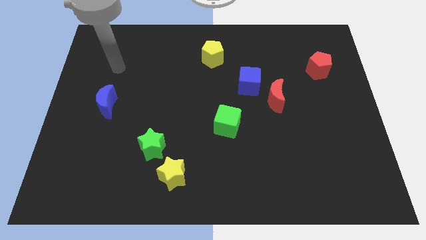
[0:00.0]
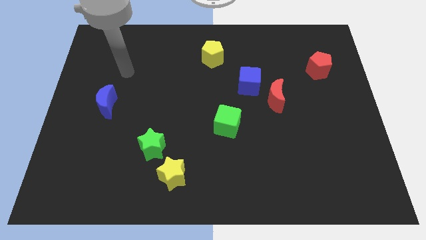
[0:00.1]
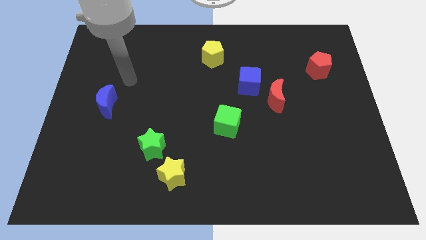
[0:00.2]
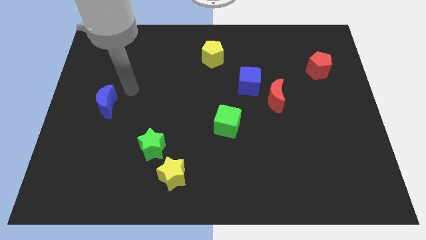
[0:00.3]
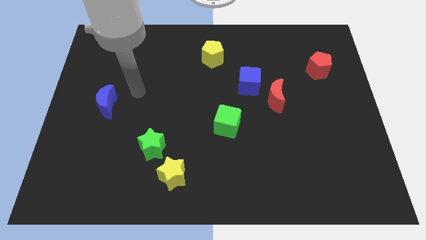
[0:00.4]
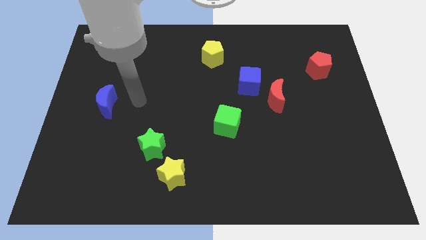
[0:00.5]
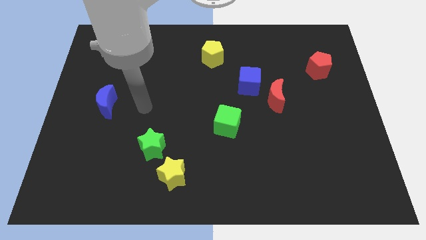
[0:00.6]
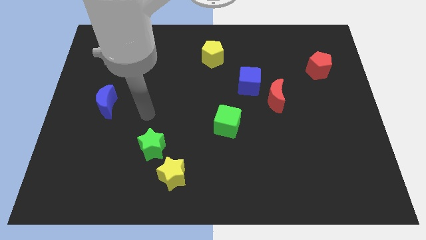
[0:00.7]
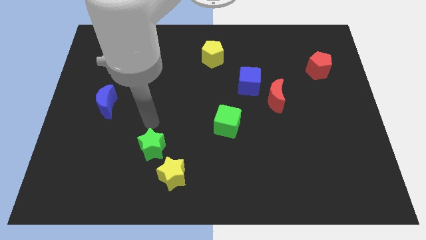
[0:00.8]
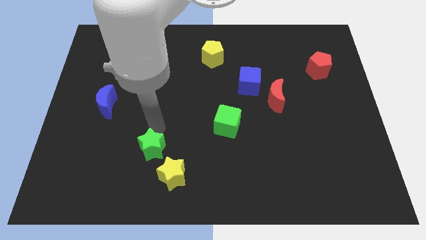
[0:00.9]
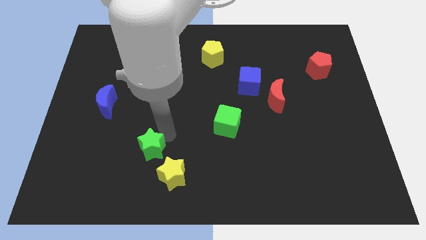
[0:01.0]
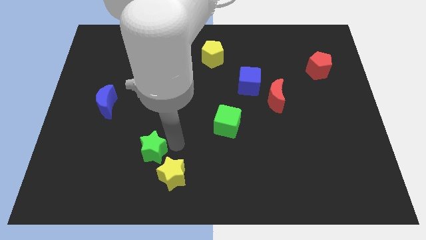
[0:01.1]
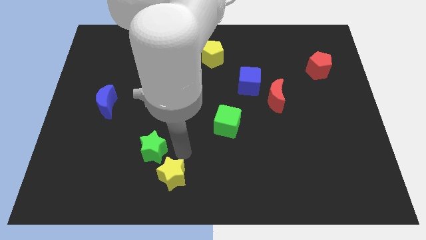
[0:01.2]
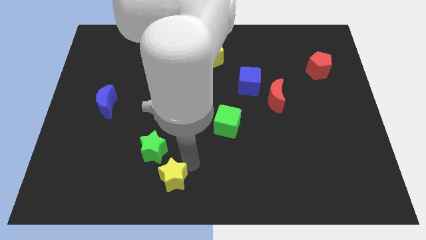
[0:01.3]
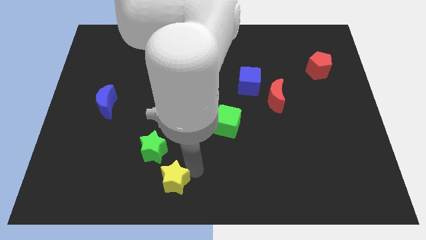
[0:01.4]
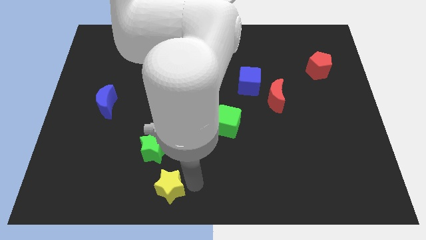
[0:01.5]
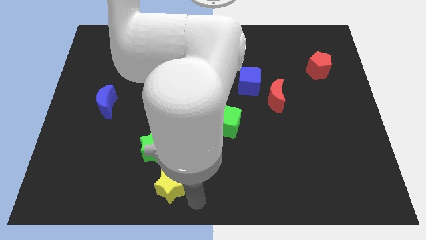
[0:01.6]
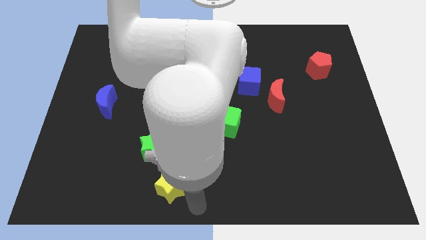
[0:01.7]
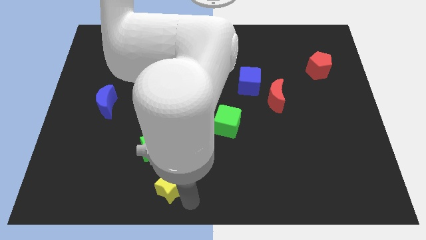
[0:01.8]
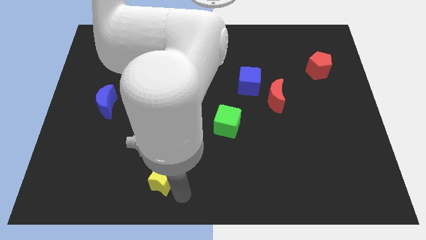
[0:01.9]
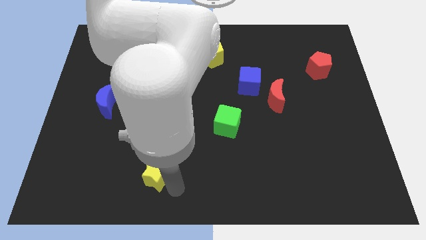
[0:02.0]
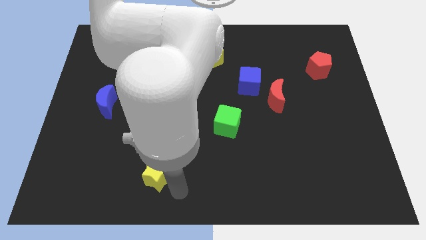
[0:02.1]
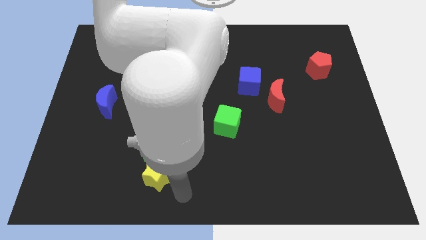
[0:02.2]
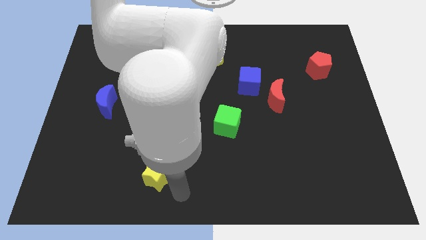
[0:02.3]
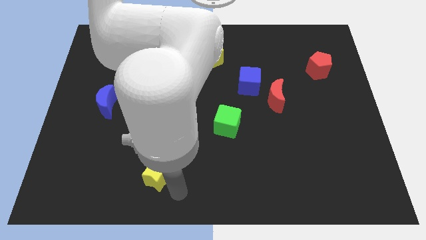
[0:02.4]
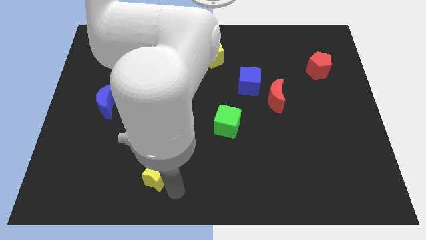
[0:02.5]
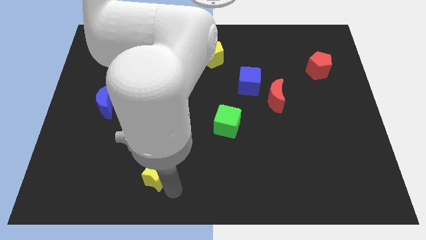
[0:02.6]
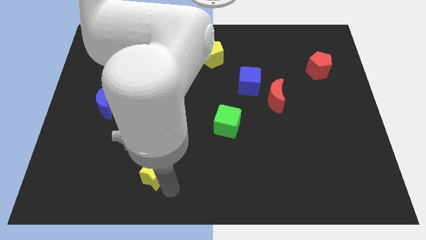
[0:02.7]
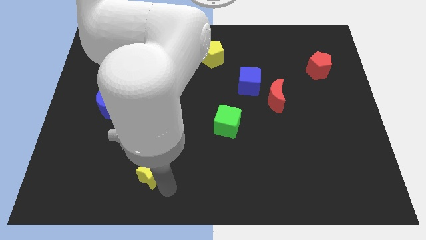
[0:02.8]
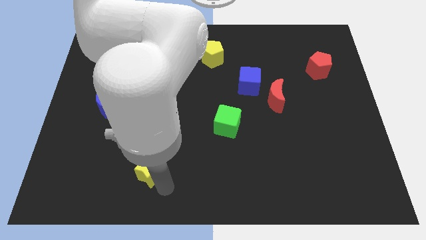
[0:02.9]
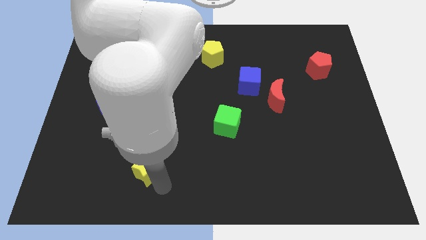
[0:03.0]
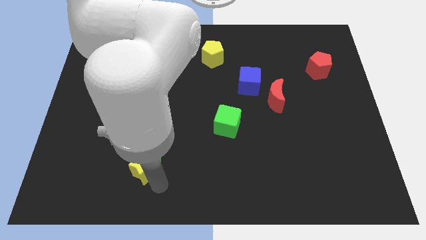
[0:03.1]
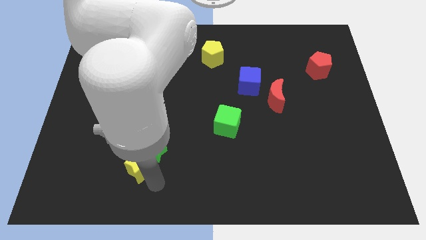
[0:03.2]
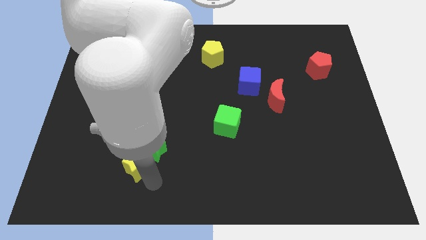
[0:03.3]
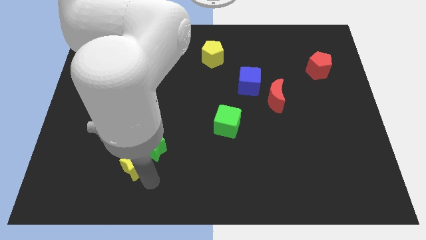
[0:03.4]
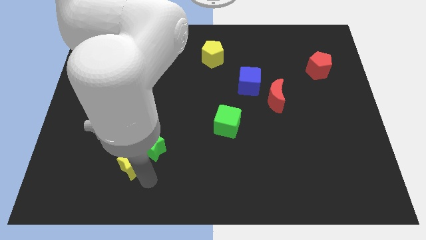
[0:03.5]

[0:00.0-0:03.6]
push the yellow star a little bit diagonally up and left

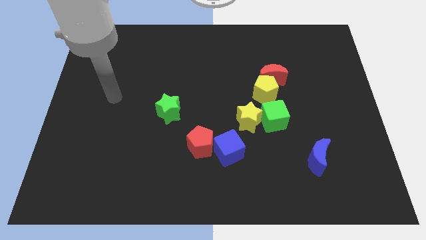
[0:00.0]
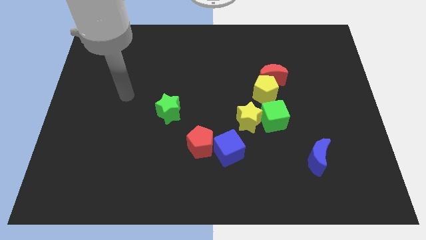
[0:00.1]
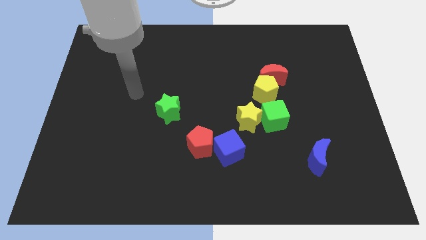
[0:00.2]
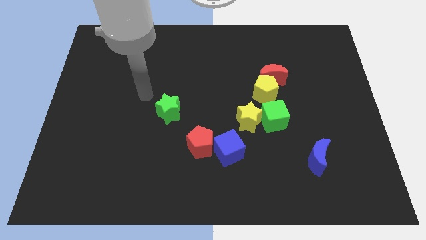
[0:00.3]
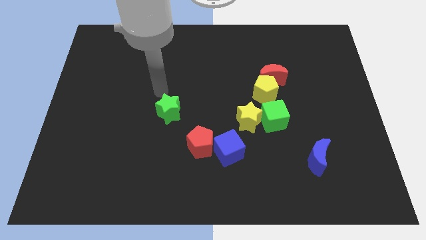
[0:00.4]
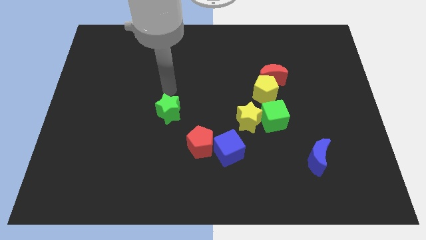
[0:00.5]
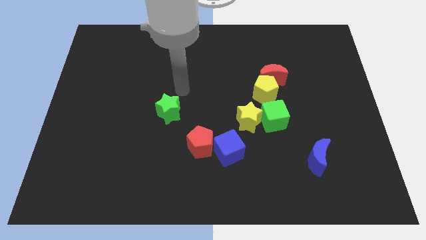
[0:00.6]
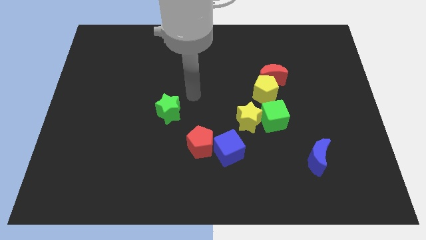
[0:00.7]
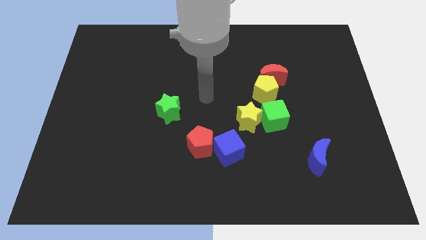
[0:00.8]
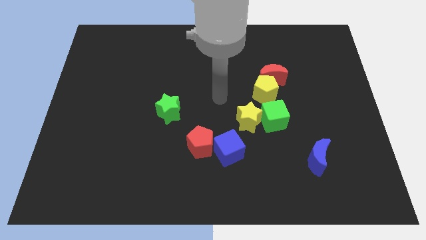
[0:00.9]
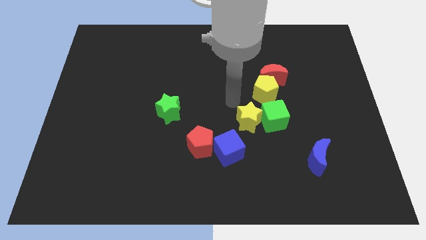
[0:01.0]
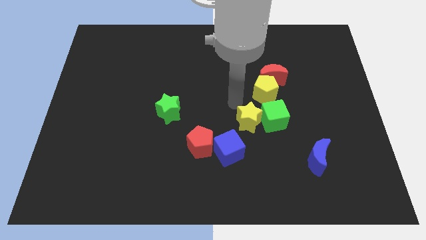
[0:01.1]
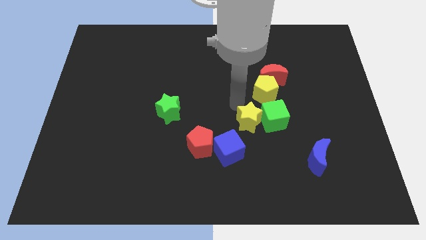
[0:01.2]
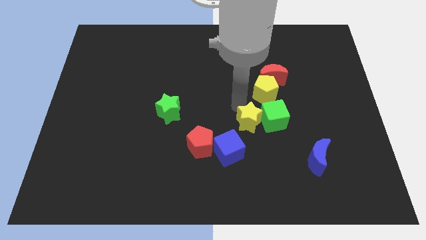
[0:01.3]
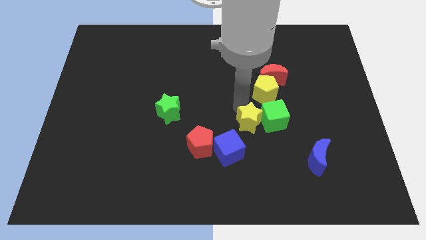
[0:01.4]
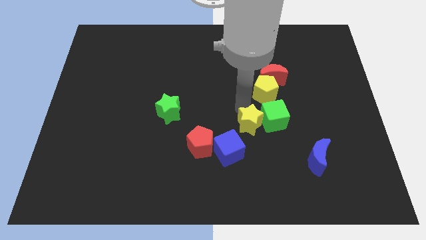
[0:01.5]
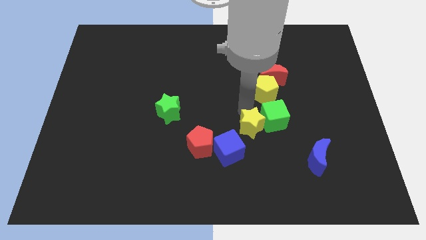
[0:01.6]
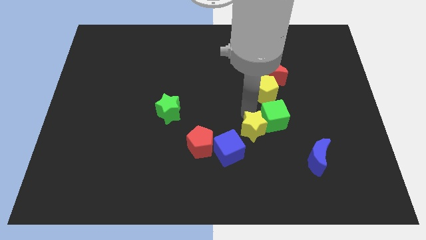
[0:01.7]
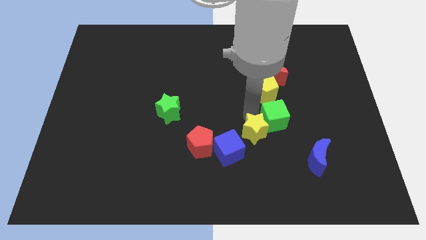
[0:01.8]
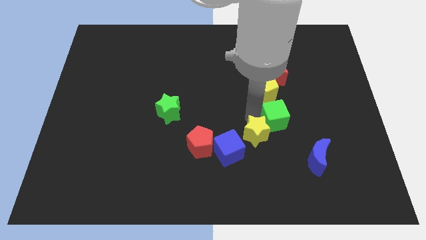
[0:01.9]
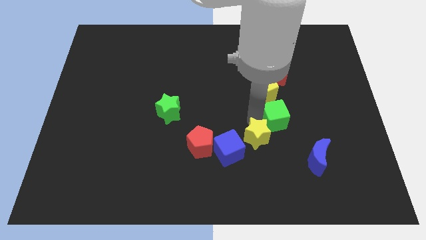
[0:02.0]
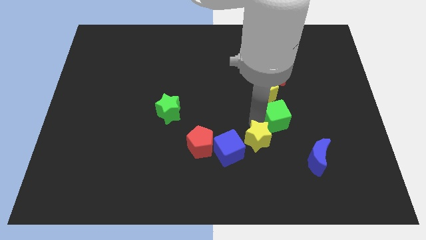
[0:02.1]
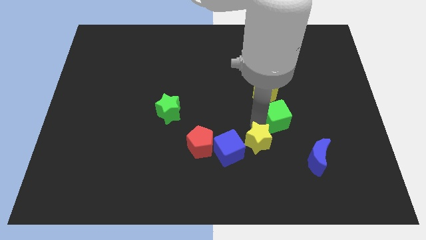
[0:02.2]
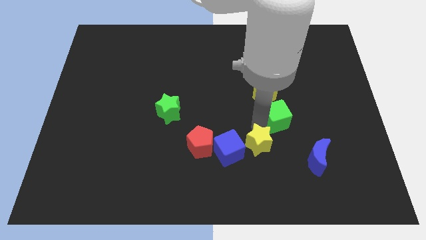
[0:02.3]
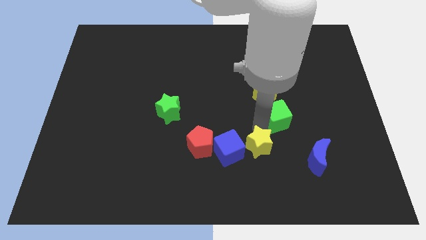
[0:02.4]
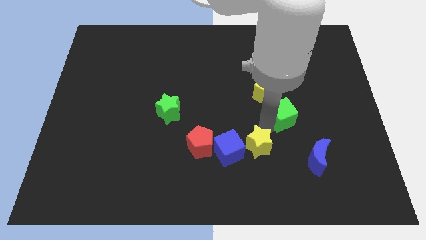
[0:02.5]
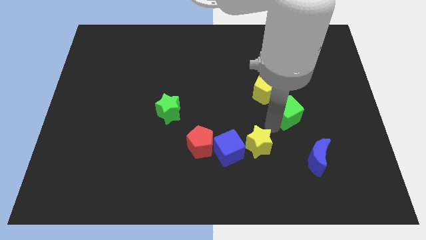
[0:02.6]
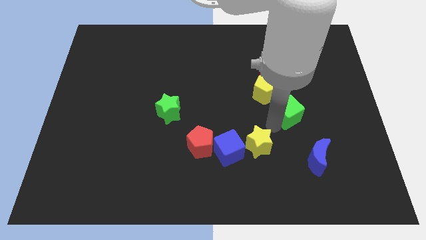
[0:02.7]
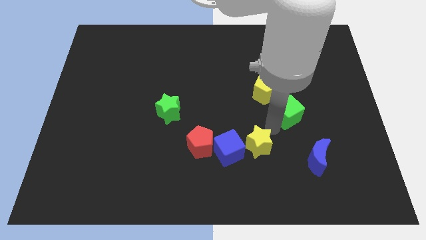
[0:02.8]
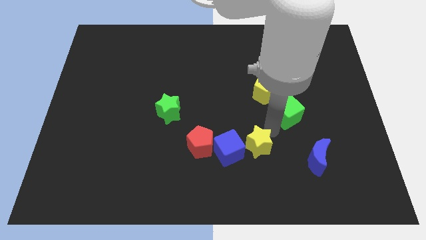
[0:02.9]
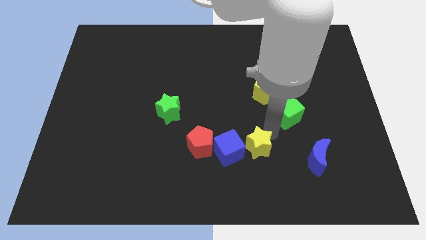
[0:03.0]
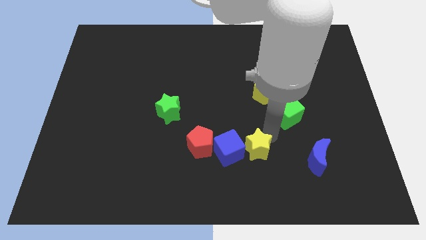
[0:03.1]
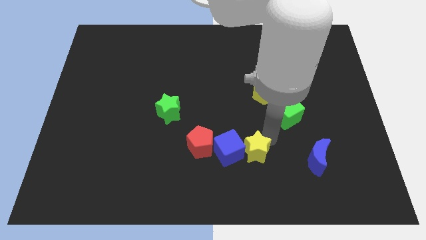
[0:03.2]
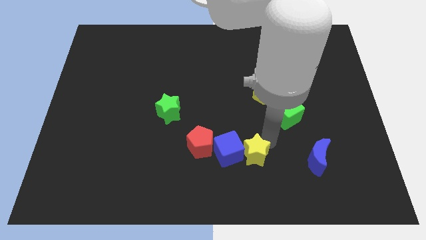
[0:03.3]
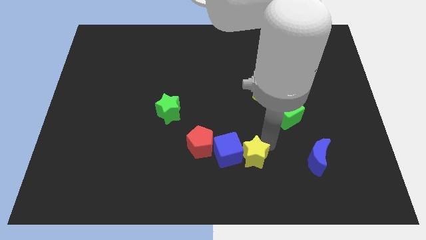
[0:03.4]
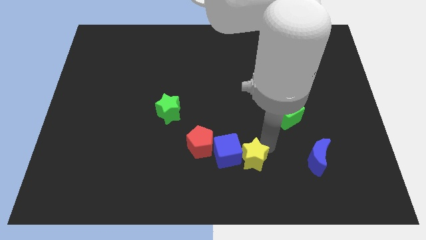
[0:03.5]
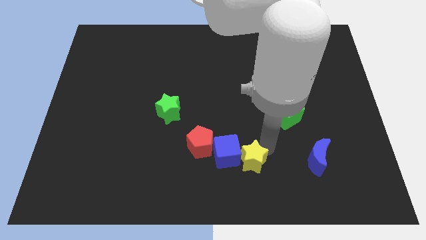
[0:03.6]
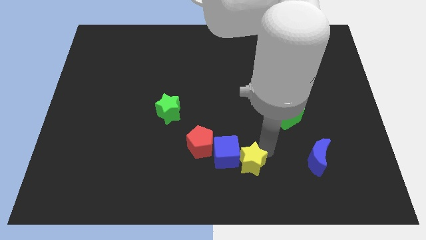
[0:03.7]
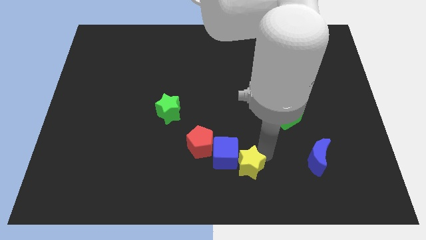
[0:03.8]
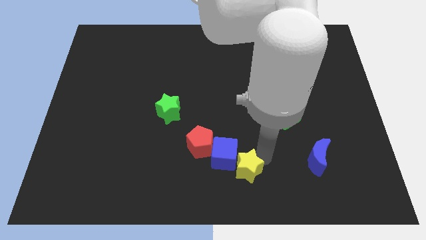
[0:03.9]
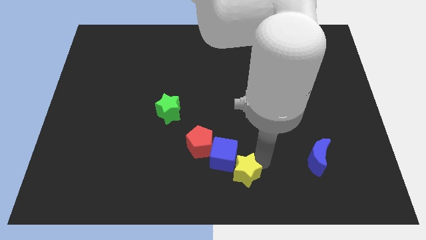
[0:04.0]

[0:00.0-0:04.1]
push the yellow star a little bit down and left

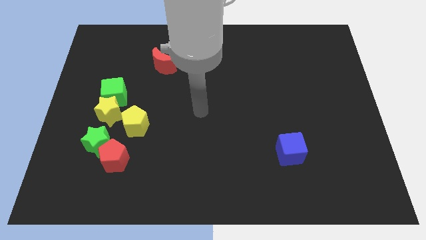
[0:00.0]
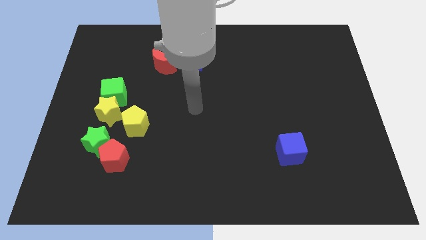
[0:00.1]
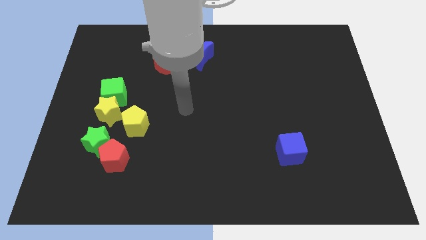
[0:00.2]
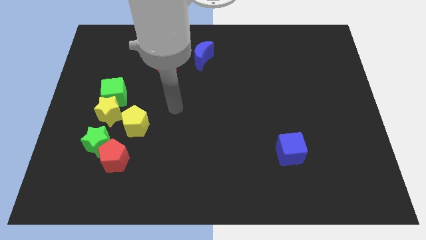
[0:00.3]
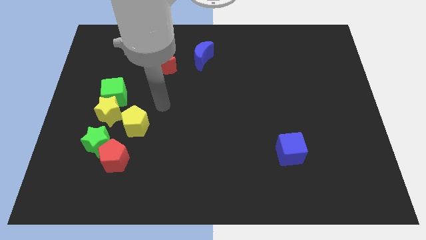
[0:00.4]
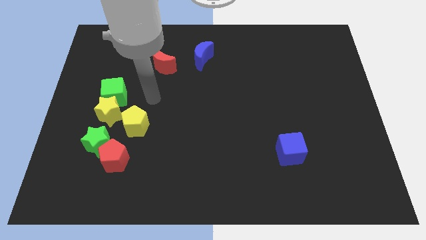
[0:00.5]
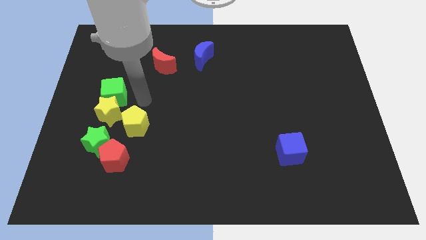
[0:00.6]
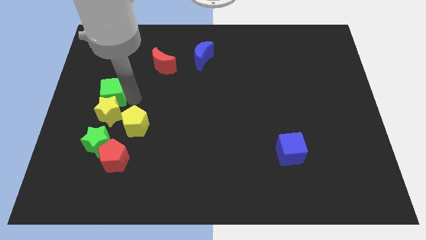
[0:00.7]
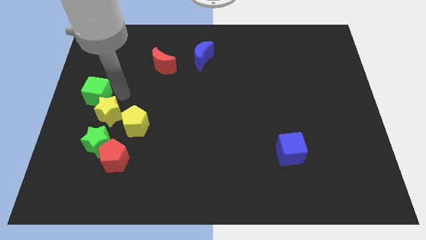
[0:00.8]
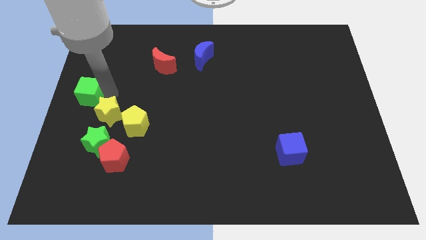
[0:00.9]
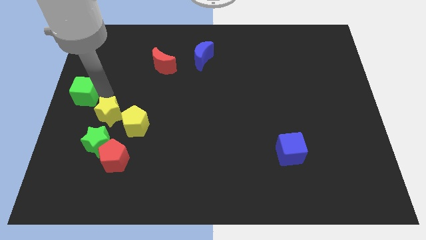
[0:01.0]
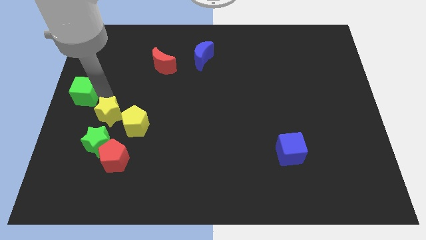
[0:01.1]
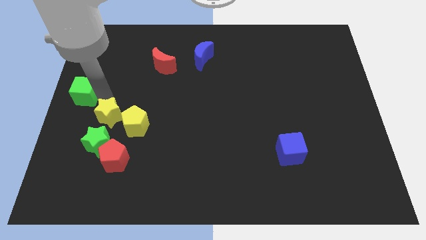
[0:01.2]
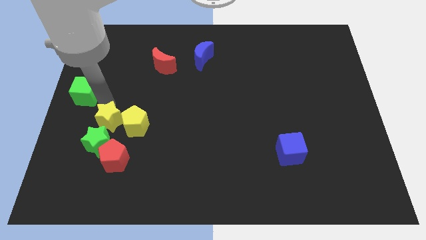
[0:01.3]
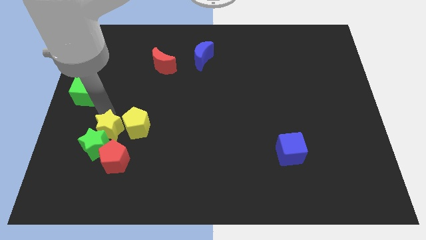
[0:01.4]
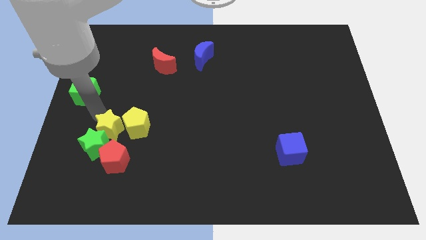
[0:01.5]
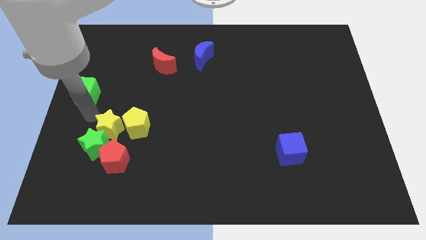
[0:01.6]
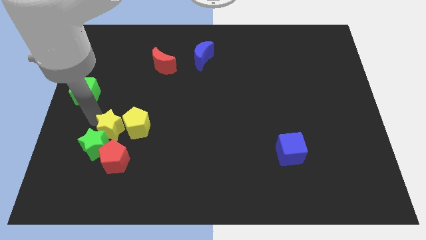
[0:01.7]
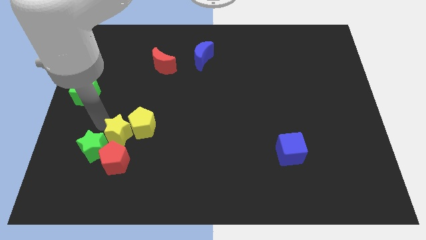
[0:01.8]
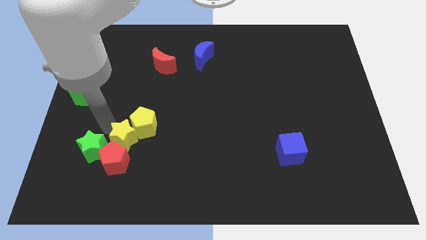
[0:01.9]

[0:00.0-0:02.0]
push the yellow star somewhat downwards and to the right
